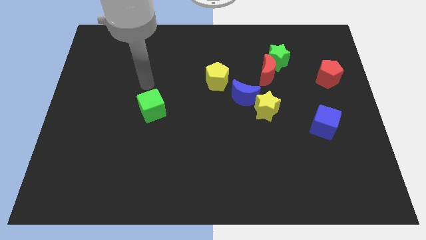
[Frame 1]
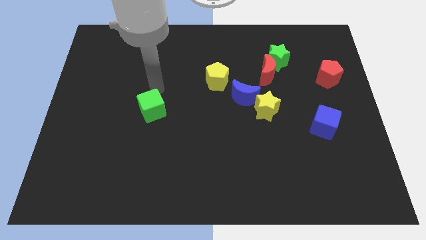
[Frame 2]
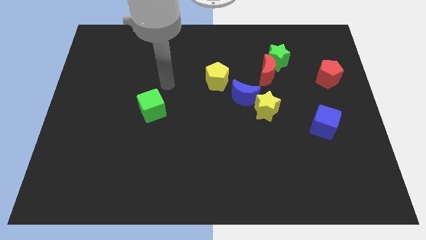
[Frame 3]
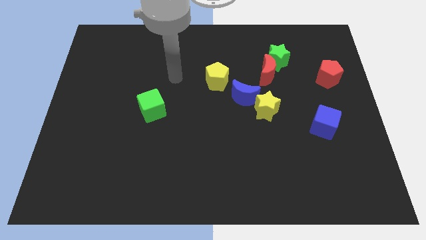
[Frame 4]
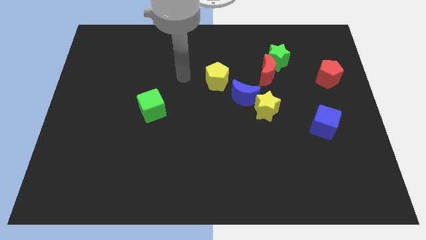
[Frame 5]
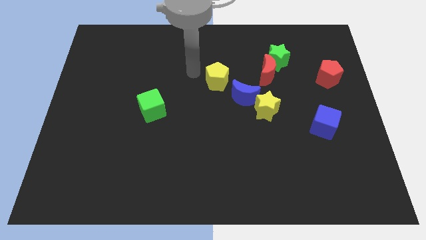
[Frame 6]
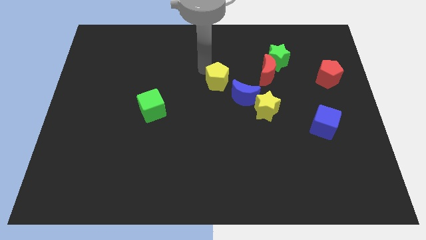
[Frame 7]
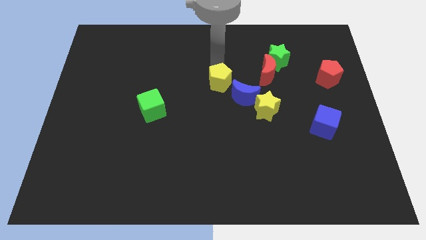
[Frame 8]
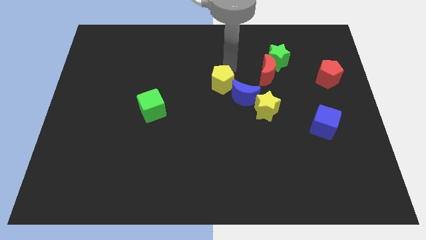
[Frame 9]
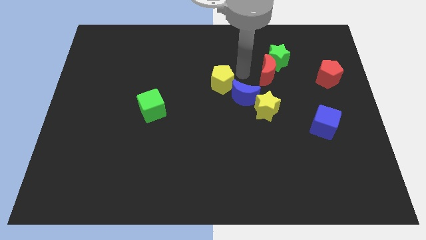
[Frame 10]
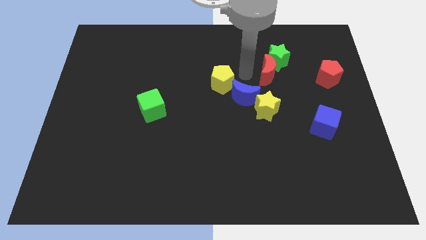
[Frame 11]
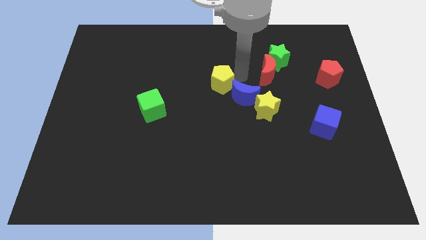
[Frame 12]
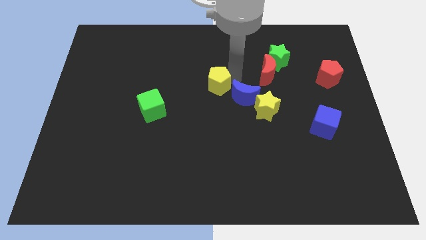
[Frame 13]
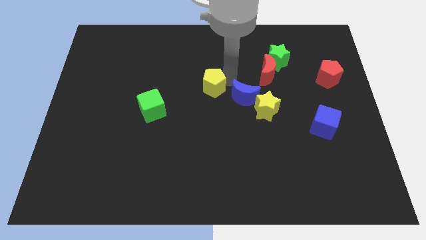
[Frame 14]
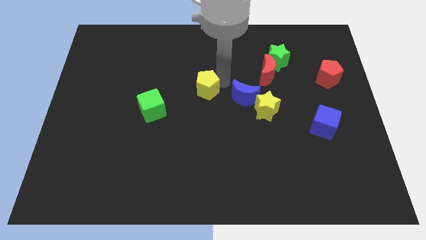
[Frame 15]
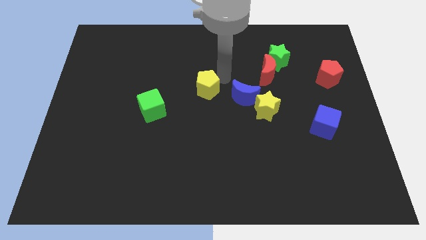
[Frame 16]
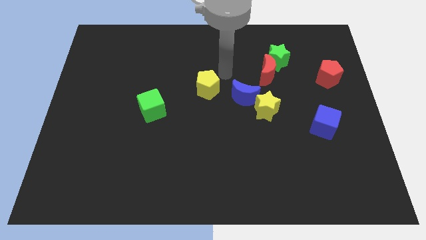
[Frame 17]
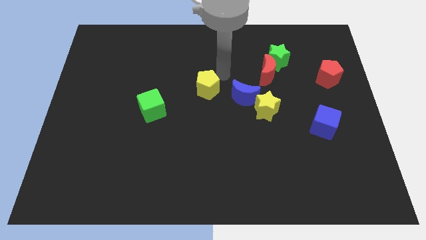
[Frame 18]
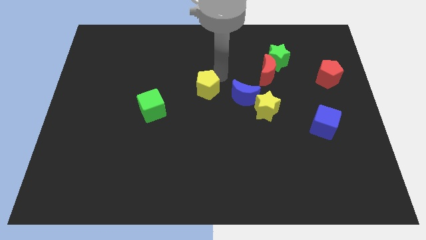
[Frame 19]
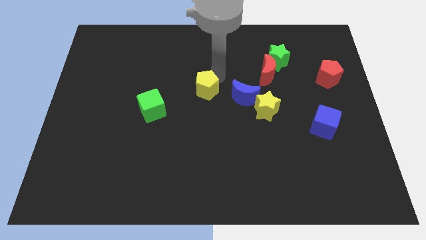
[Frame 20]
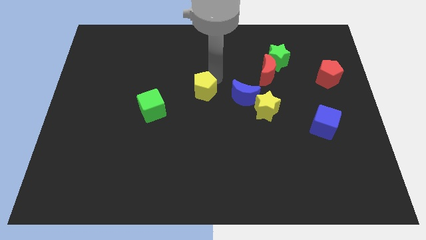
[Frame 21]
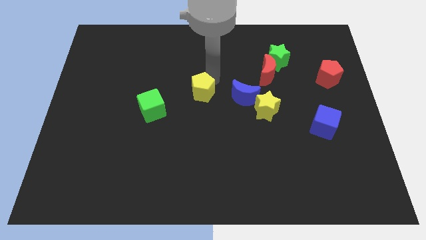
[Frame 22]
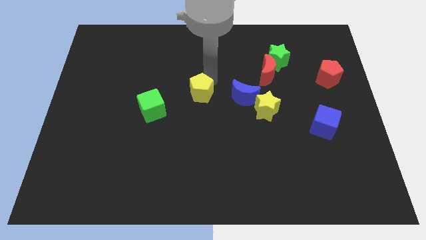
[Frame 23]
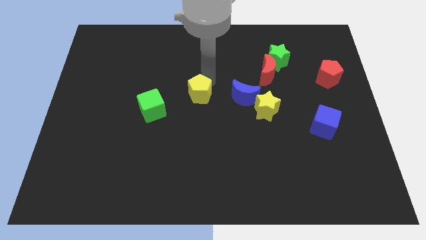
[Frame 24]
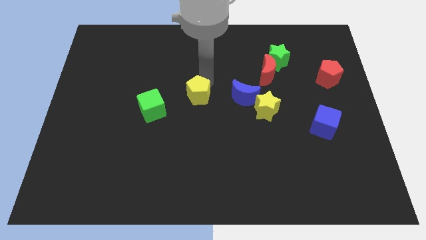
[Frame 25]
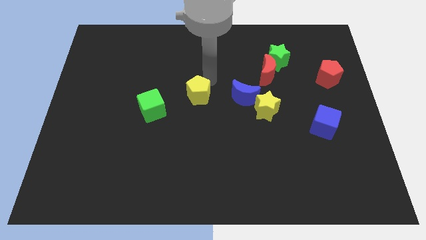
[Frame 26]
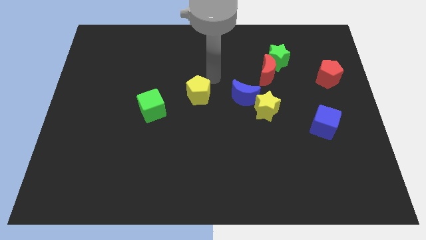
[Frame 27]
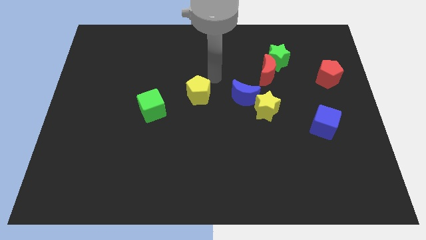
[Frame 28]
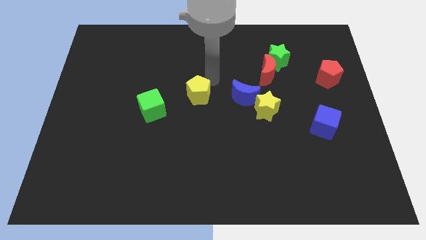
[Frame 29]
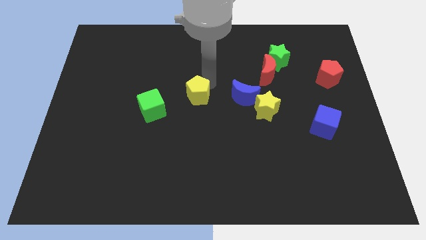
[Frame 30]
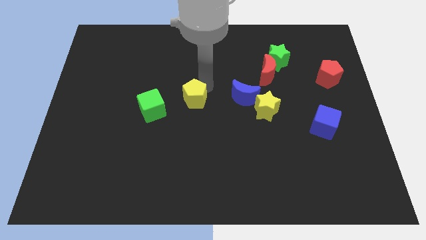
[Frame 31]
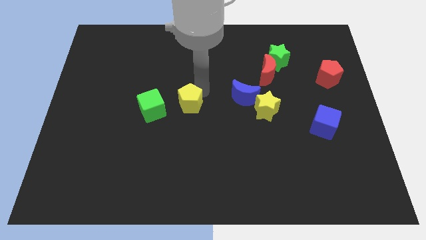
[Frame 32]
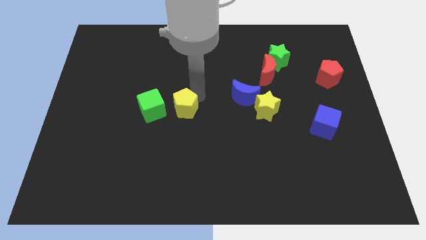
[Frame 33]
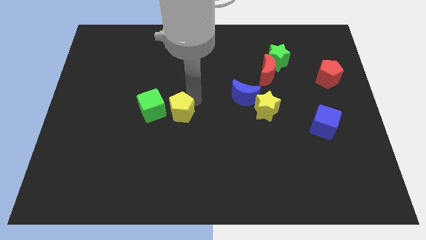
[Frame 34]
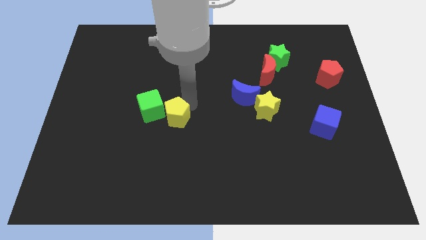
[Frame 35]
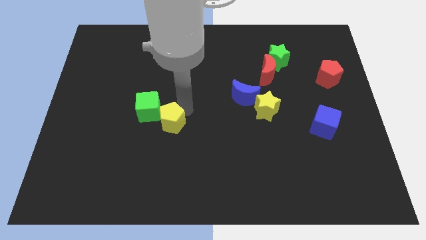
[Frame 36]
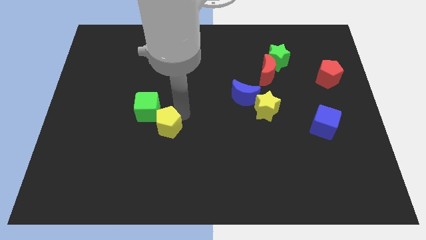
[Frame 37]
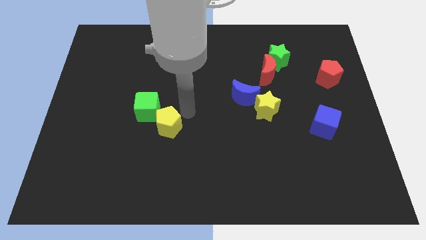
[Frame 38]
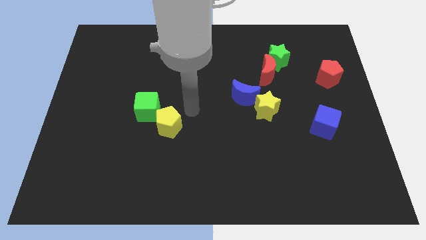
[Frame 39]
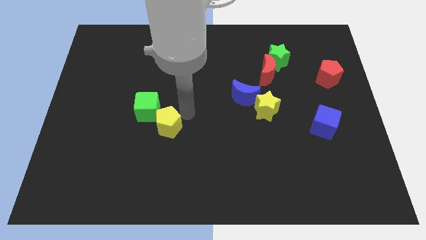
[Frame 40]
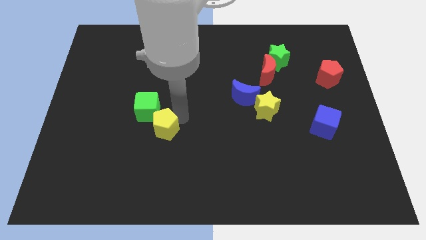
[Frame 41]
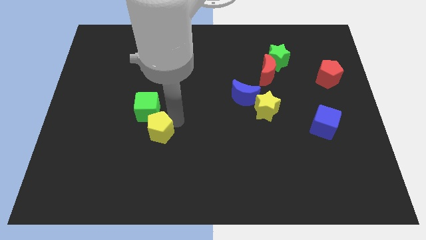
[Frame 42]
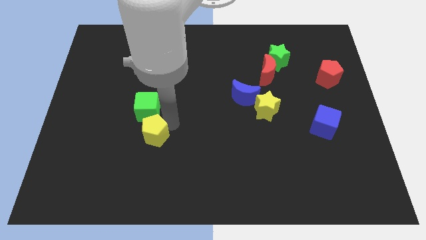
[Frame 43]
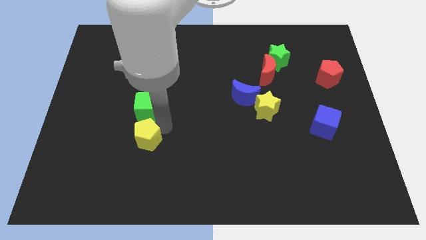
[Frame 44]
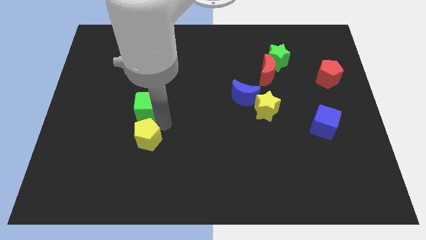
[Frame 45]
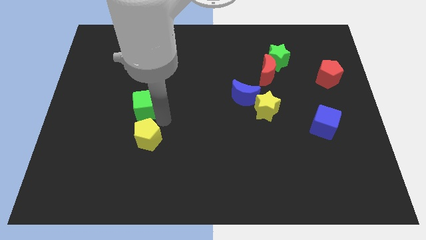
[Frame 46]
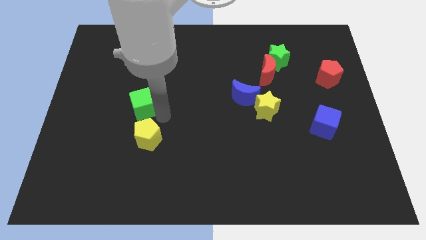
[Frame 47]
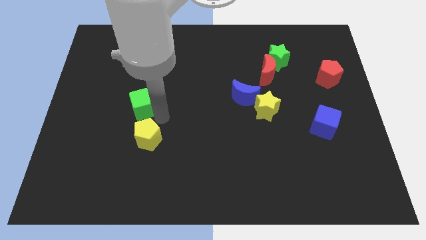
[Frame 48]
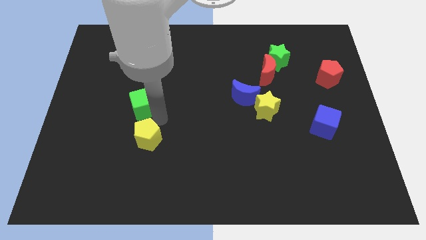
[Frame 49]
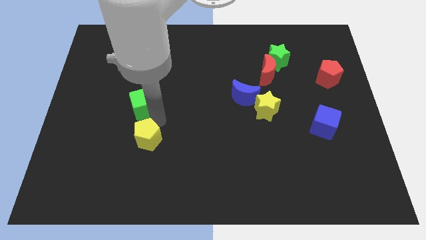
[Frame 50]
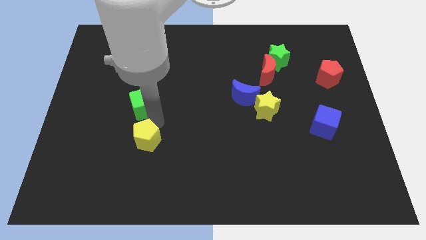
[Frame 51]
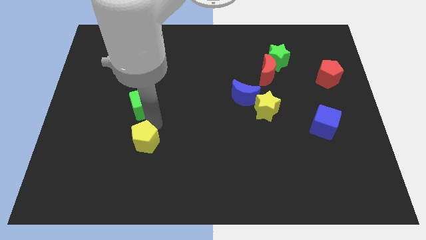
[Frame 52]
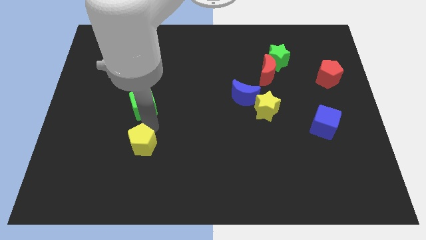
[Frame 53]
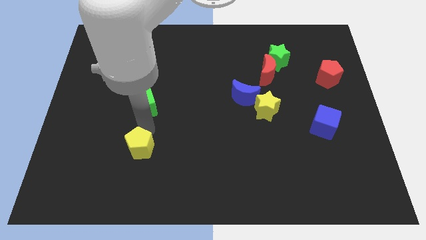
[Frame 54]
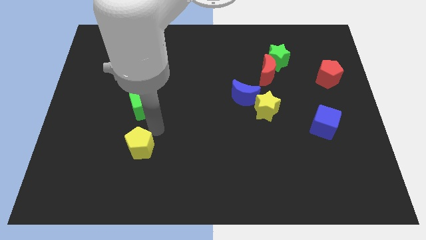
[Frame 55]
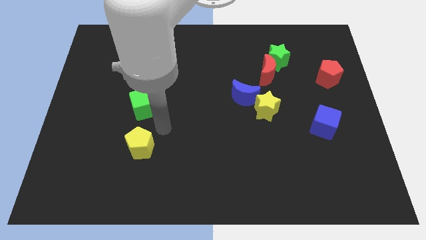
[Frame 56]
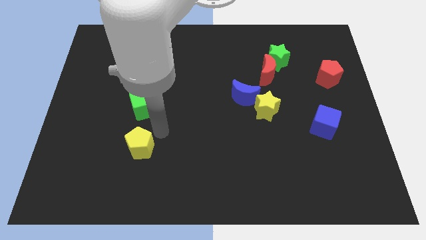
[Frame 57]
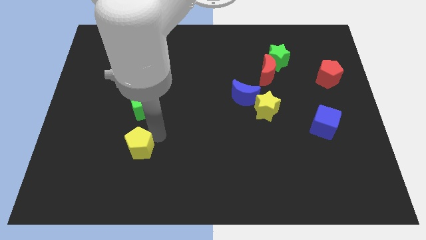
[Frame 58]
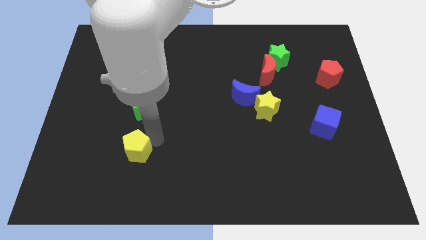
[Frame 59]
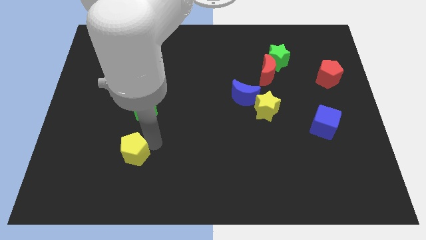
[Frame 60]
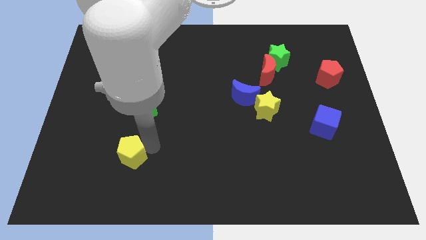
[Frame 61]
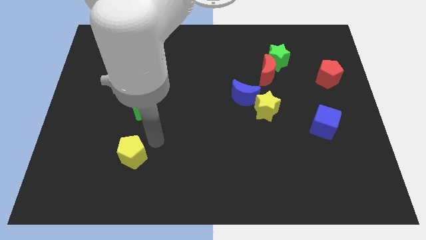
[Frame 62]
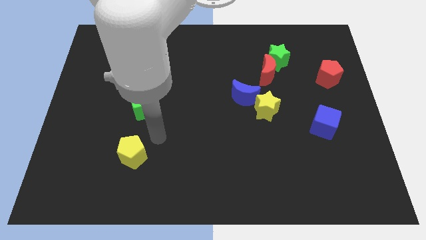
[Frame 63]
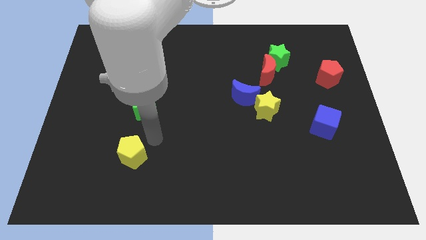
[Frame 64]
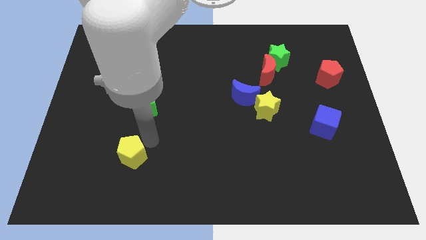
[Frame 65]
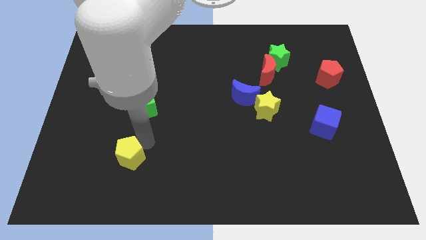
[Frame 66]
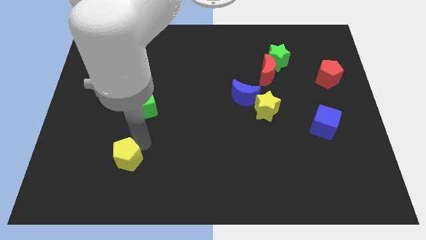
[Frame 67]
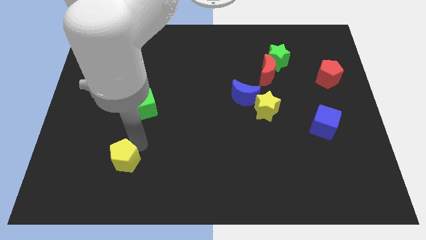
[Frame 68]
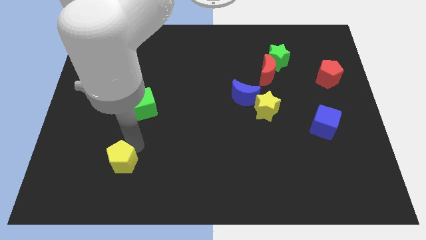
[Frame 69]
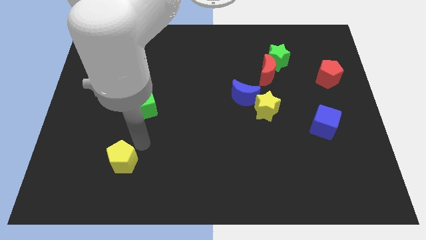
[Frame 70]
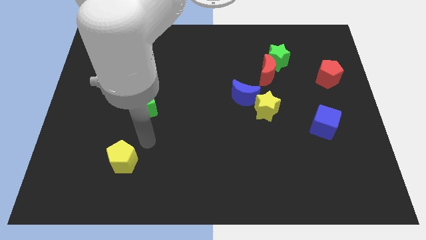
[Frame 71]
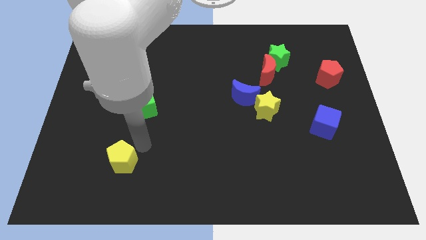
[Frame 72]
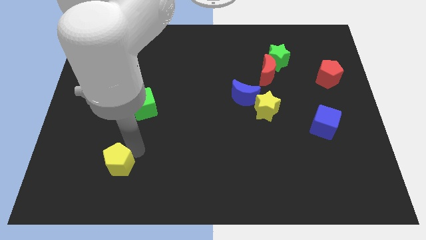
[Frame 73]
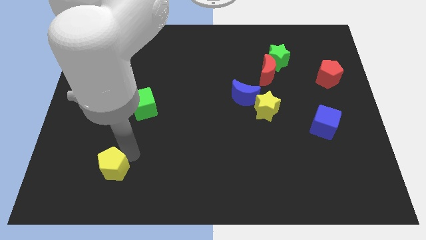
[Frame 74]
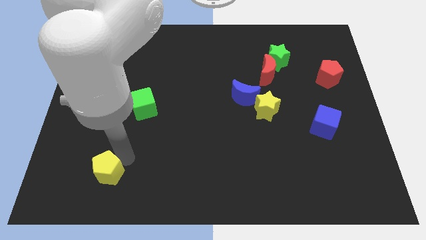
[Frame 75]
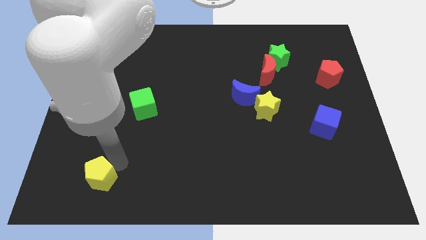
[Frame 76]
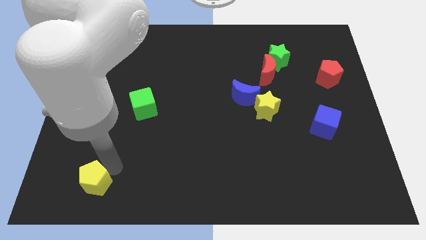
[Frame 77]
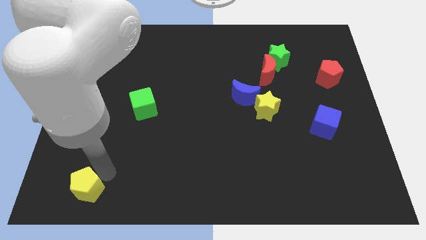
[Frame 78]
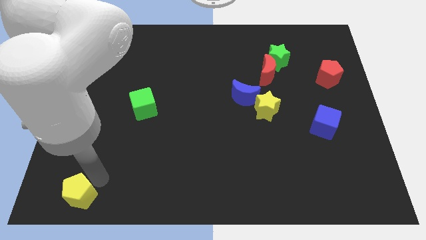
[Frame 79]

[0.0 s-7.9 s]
slide the yellow pentagon to the bottom left corner
